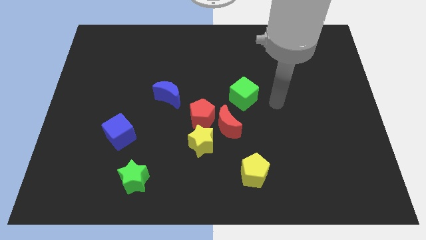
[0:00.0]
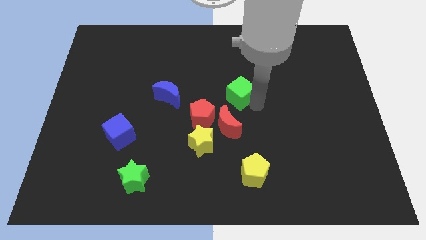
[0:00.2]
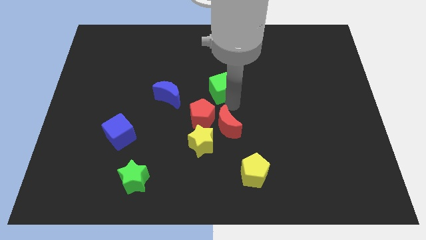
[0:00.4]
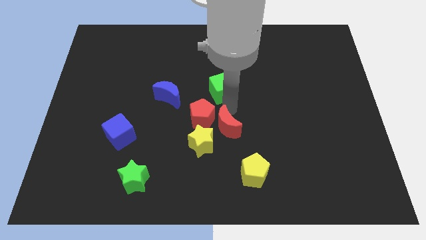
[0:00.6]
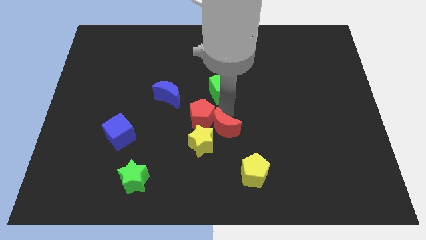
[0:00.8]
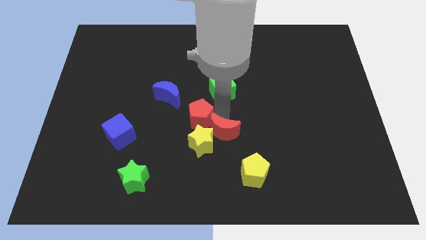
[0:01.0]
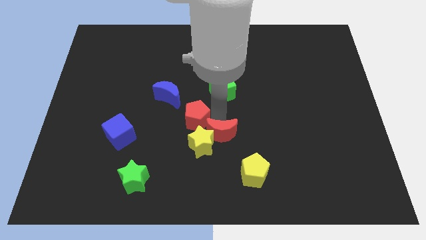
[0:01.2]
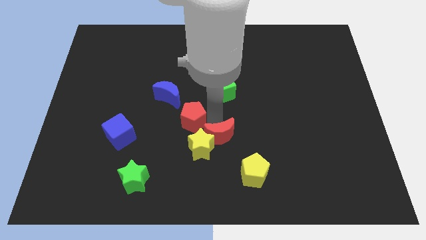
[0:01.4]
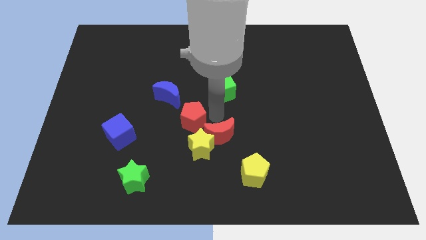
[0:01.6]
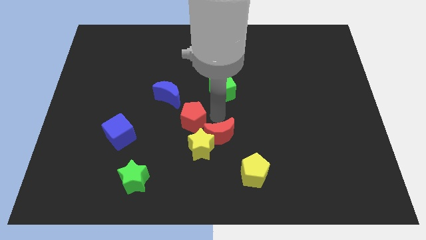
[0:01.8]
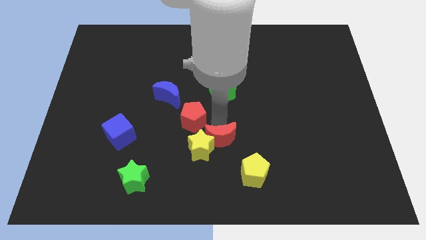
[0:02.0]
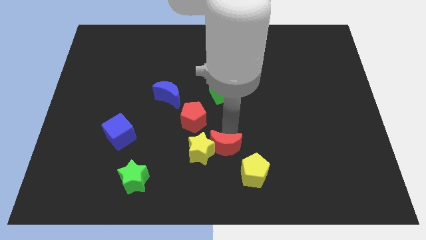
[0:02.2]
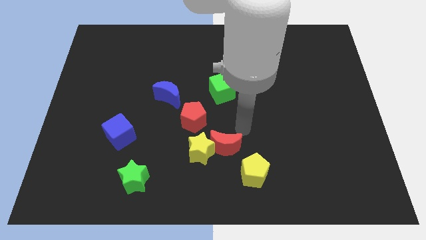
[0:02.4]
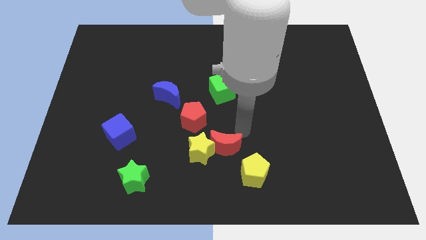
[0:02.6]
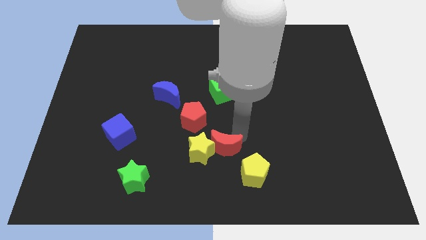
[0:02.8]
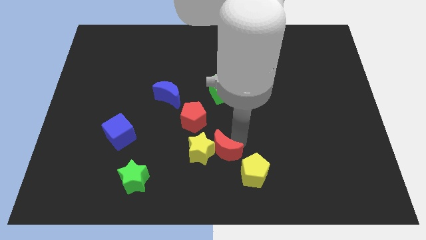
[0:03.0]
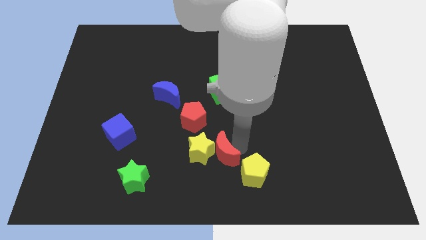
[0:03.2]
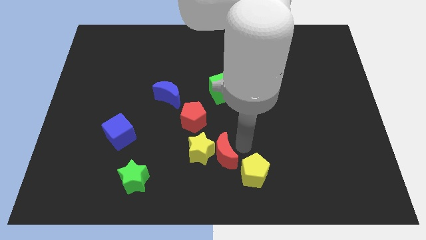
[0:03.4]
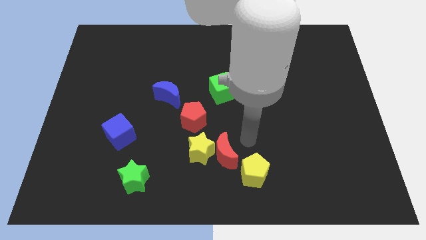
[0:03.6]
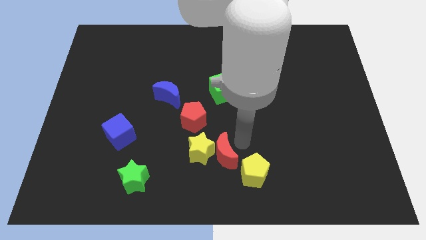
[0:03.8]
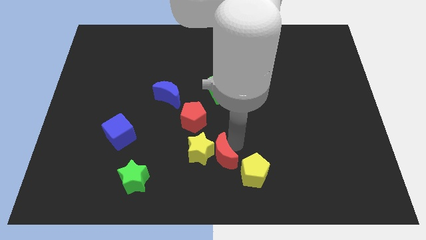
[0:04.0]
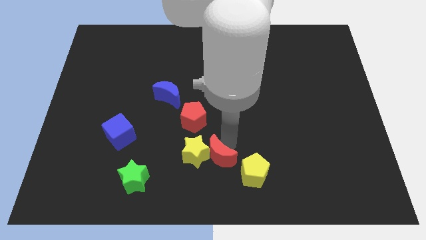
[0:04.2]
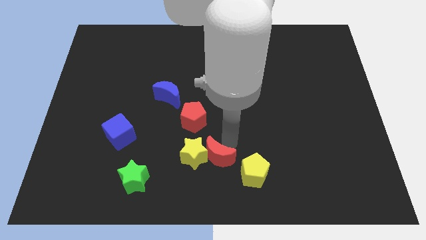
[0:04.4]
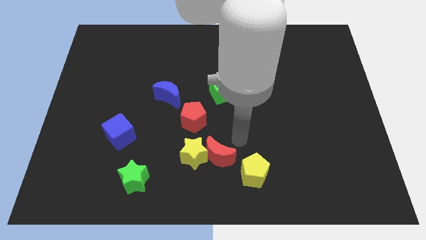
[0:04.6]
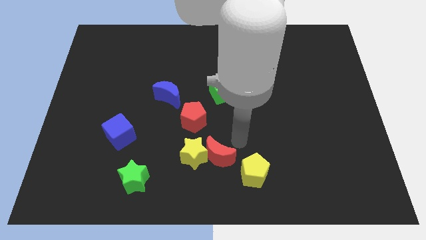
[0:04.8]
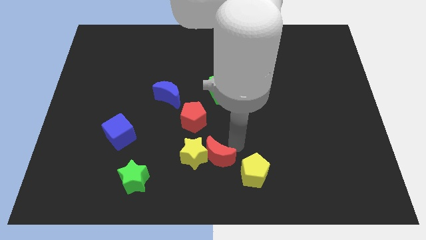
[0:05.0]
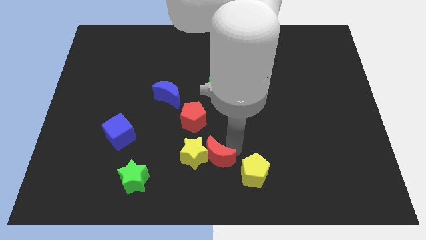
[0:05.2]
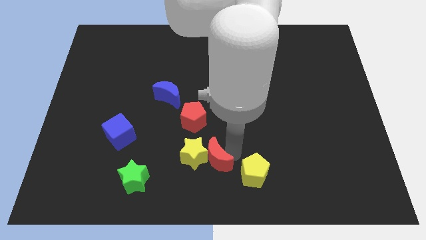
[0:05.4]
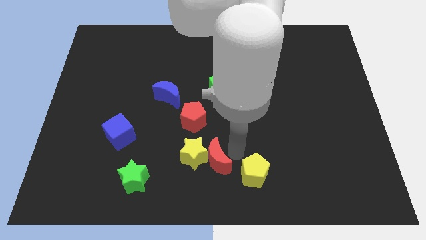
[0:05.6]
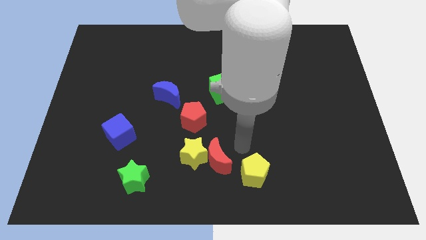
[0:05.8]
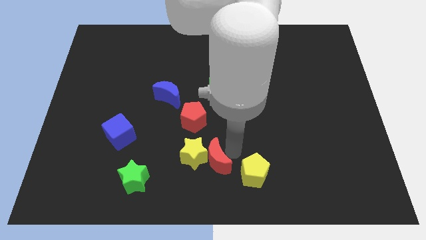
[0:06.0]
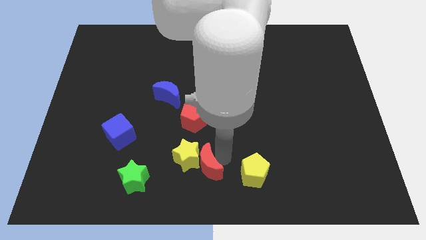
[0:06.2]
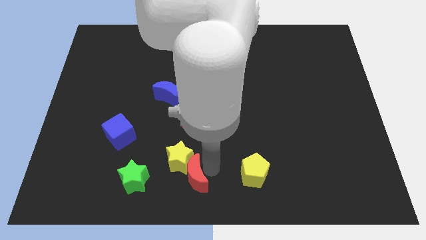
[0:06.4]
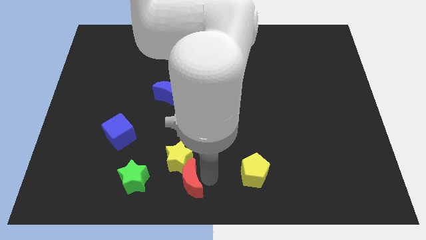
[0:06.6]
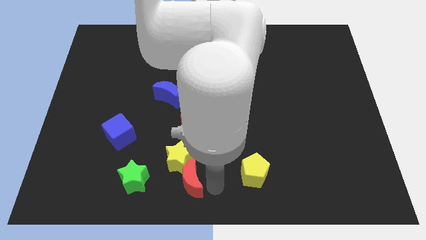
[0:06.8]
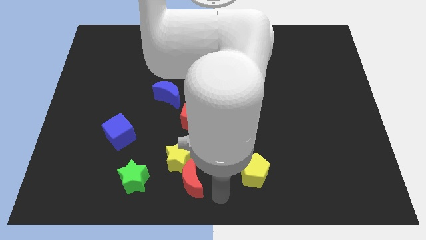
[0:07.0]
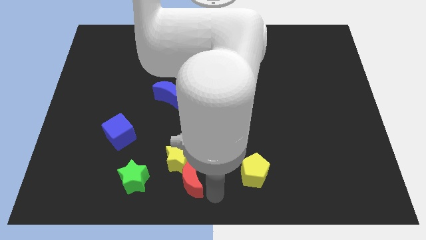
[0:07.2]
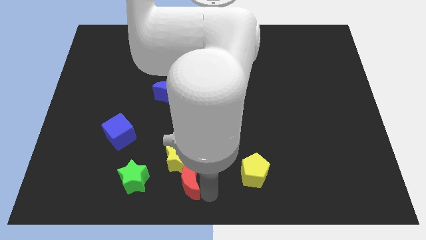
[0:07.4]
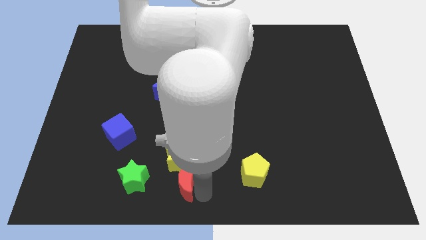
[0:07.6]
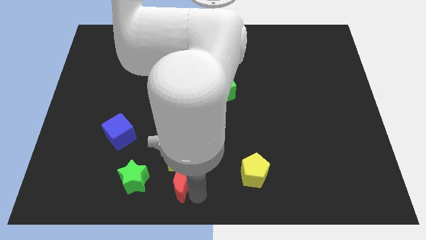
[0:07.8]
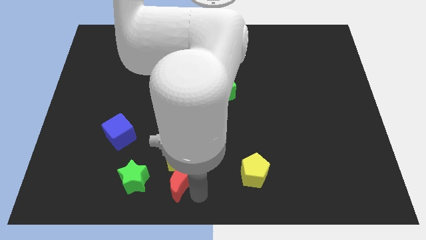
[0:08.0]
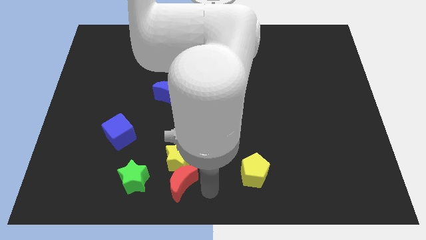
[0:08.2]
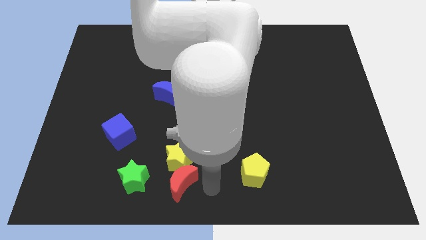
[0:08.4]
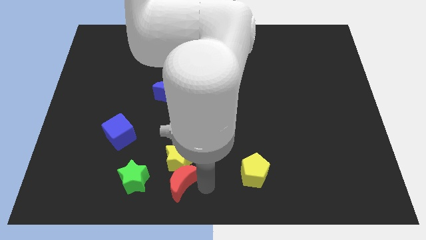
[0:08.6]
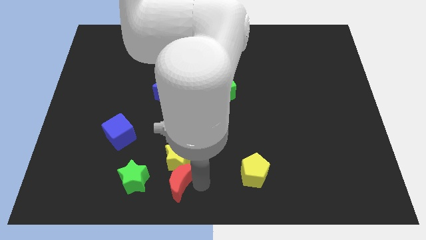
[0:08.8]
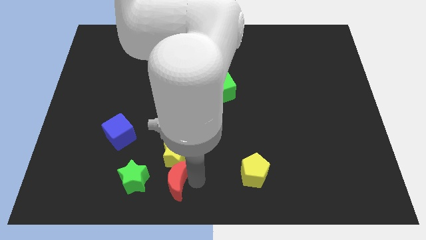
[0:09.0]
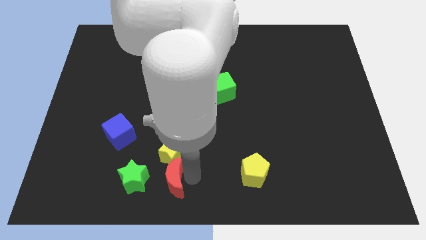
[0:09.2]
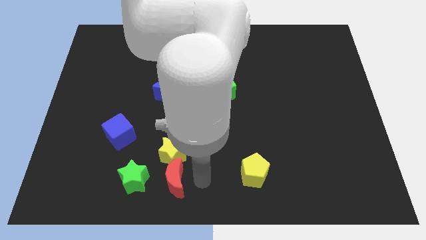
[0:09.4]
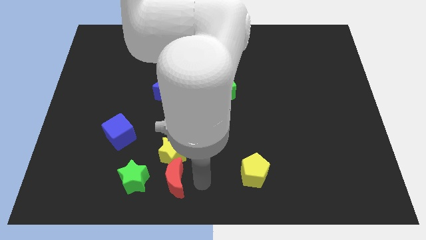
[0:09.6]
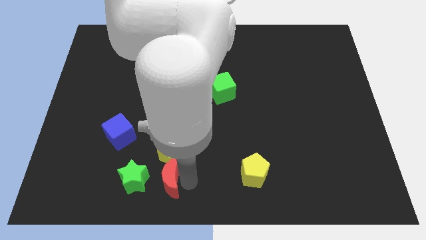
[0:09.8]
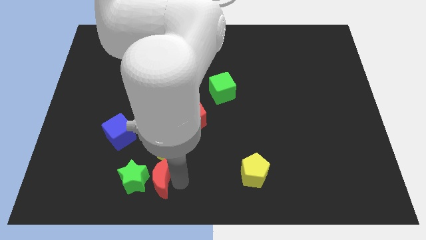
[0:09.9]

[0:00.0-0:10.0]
move the red moon next to the green star

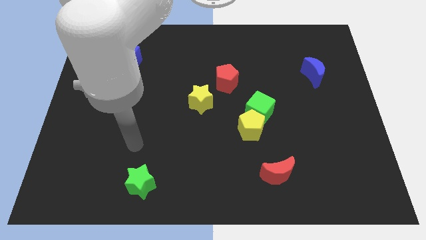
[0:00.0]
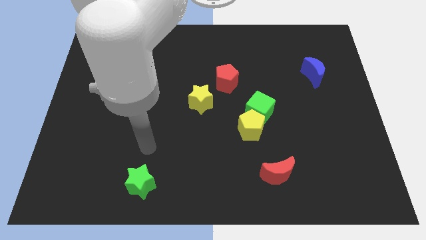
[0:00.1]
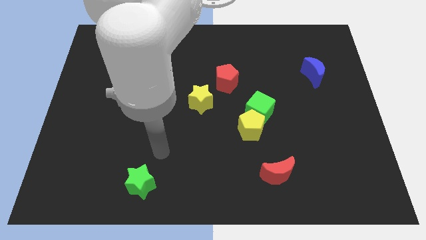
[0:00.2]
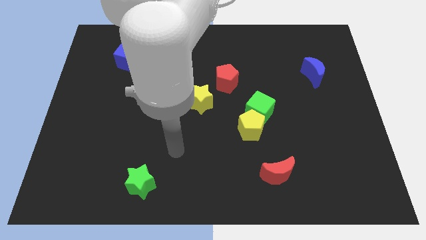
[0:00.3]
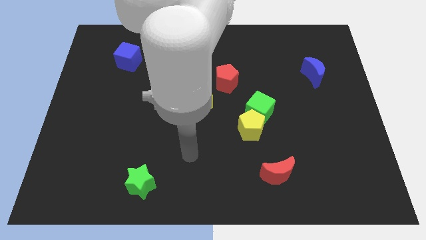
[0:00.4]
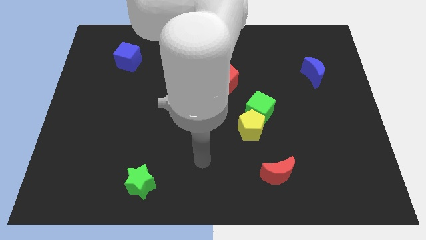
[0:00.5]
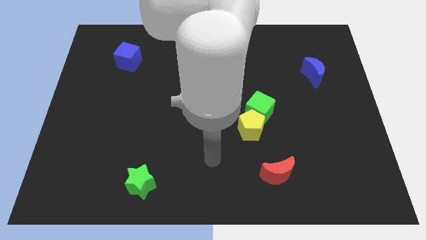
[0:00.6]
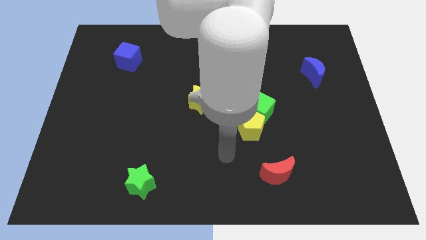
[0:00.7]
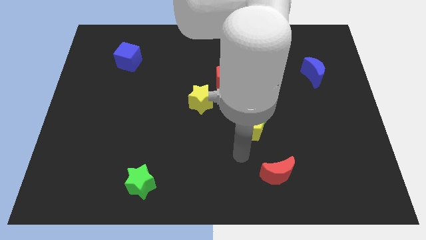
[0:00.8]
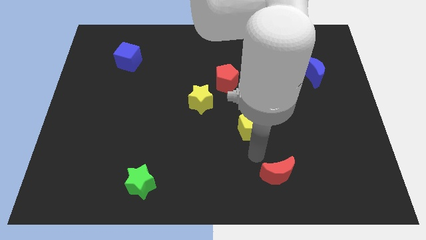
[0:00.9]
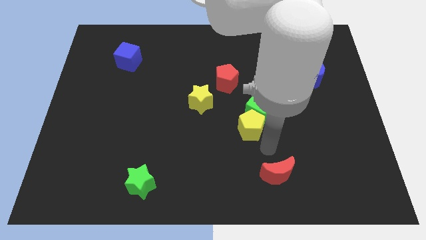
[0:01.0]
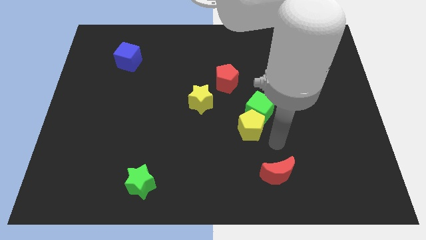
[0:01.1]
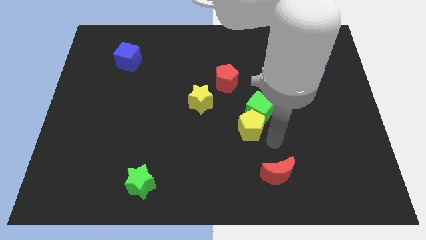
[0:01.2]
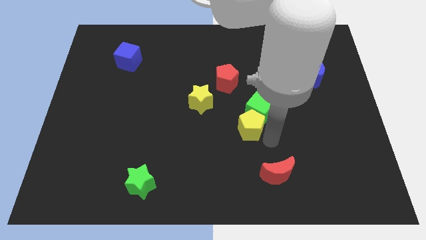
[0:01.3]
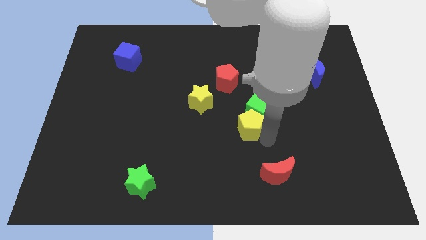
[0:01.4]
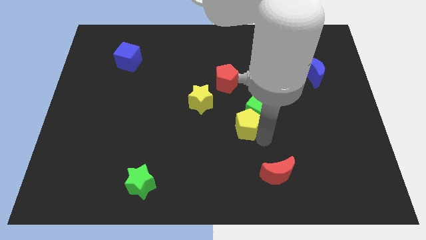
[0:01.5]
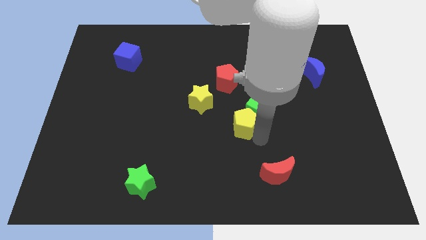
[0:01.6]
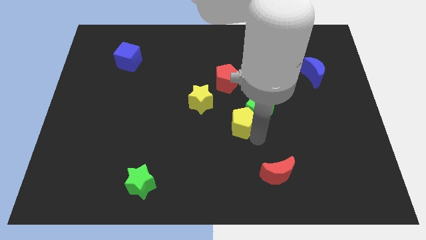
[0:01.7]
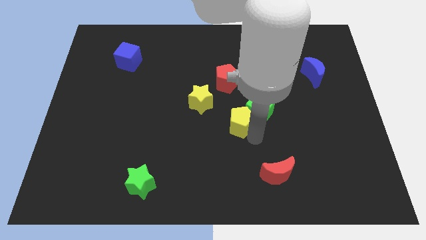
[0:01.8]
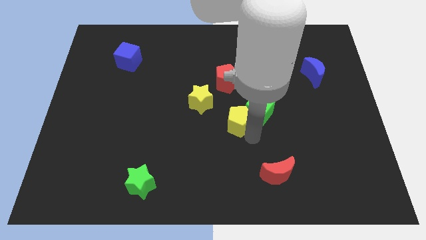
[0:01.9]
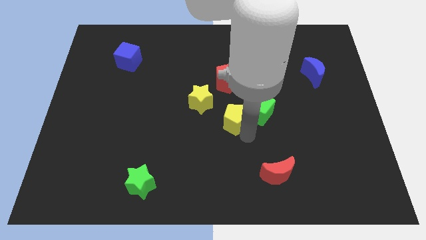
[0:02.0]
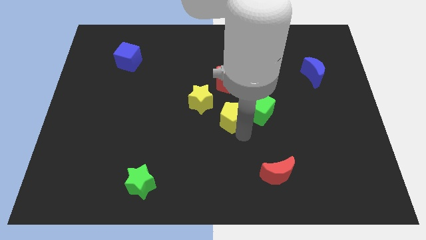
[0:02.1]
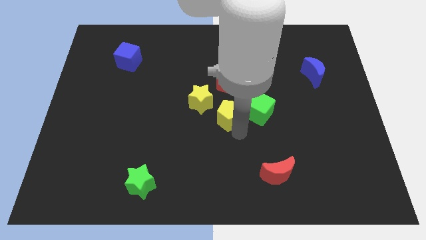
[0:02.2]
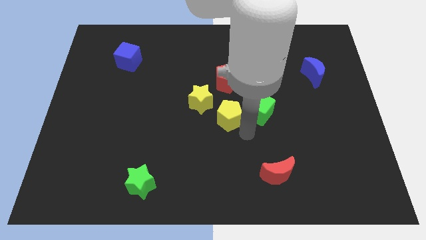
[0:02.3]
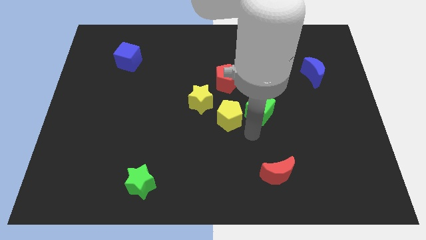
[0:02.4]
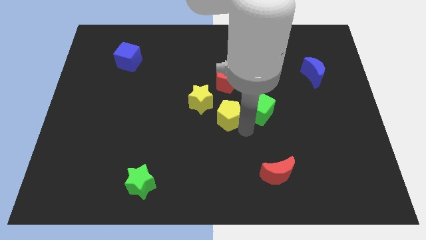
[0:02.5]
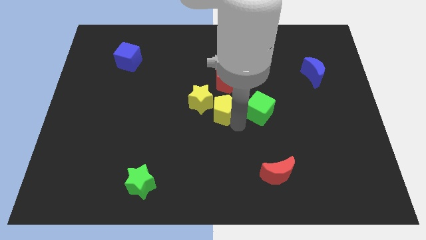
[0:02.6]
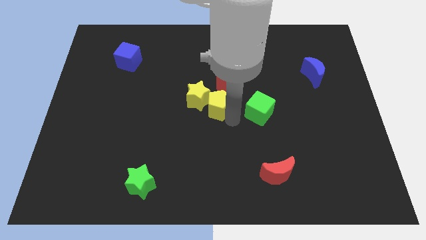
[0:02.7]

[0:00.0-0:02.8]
push the yellow pentagon next to the yellow star

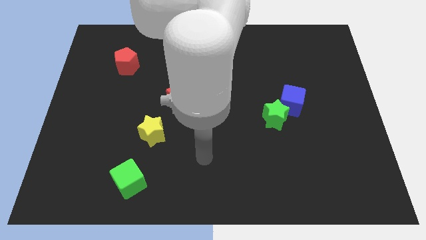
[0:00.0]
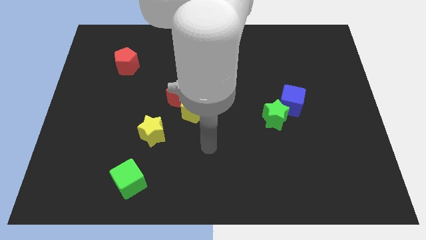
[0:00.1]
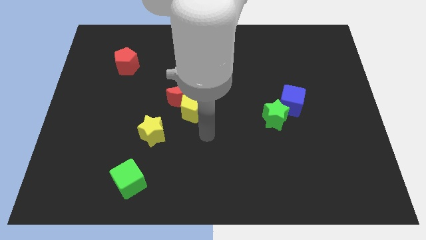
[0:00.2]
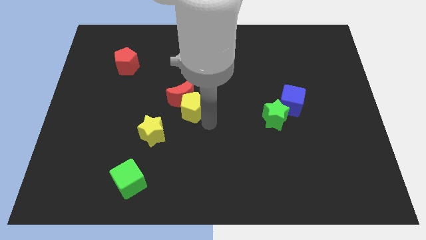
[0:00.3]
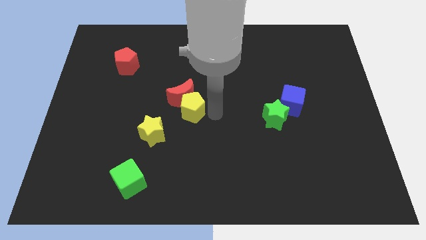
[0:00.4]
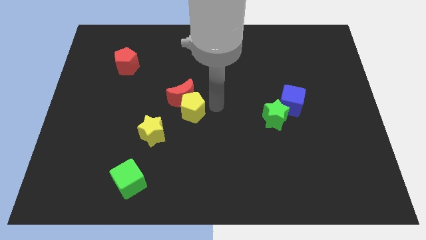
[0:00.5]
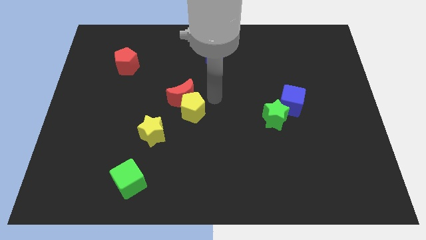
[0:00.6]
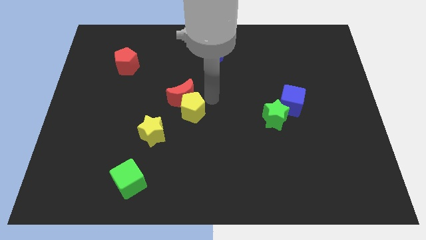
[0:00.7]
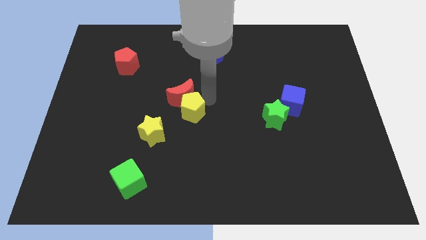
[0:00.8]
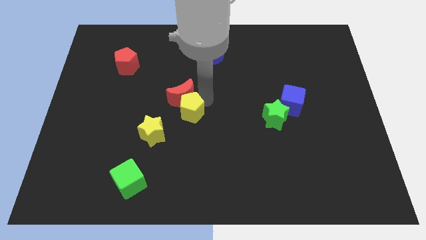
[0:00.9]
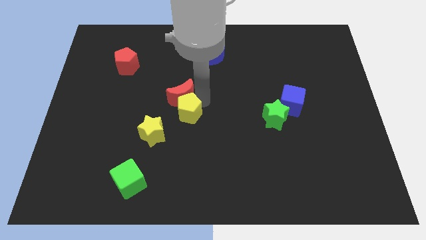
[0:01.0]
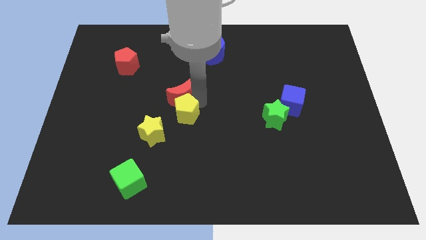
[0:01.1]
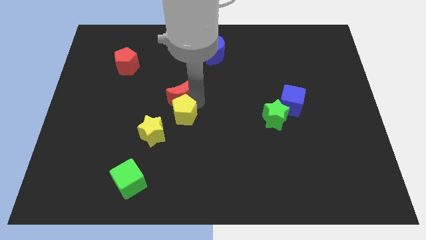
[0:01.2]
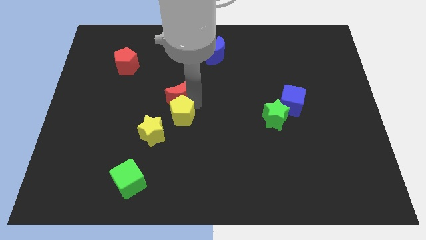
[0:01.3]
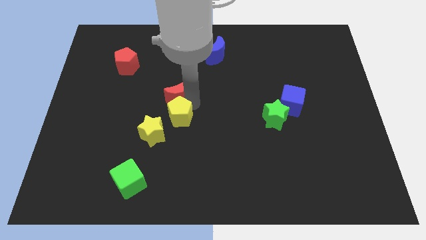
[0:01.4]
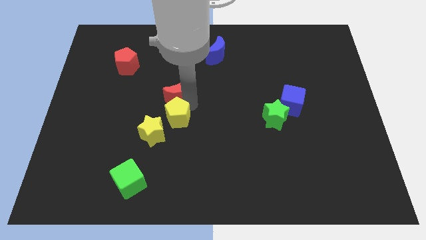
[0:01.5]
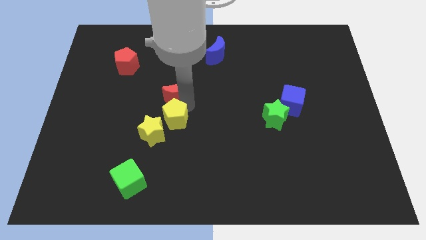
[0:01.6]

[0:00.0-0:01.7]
push the yellow pentagon close to the yellow star
